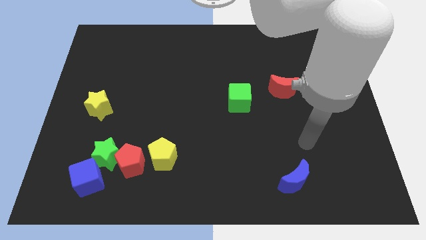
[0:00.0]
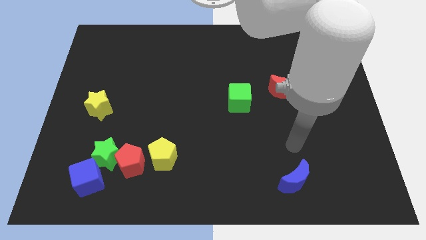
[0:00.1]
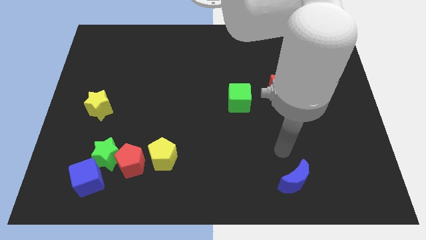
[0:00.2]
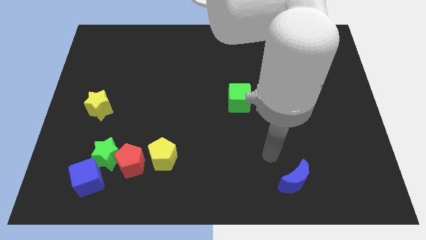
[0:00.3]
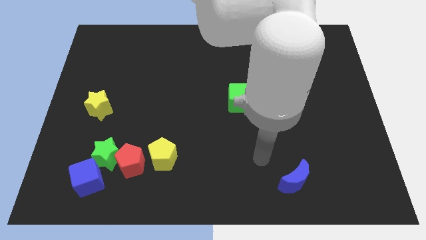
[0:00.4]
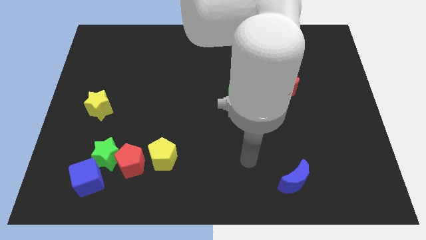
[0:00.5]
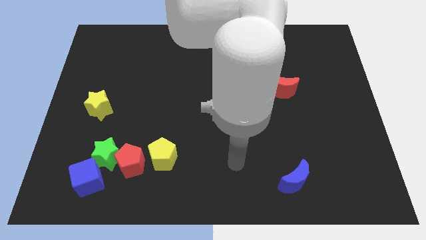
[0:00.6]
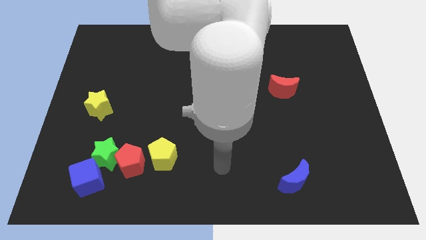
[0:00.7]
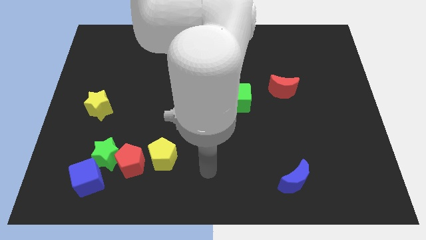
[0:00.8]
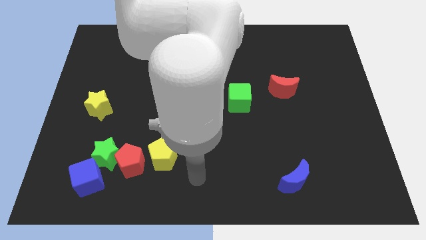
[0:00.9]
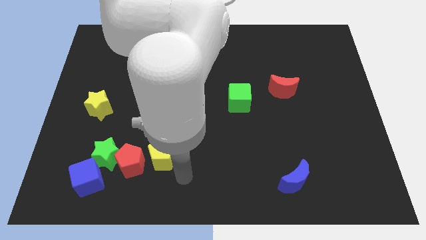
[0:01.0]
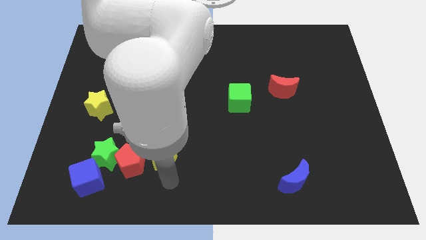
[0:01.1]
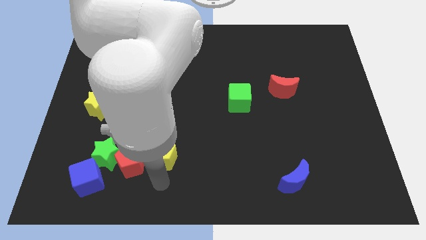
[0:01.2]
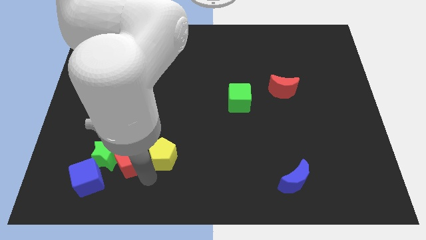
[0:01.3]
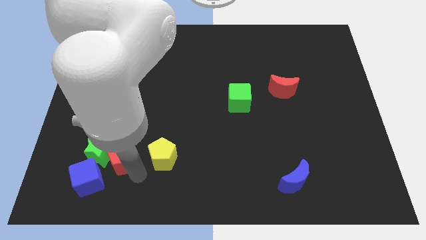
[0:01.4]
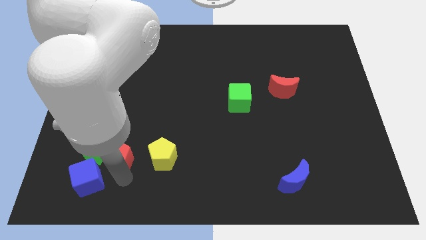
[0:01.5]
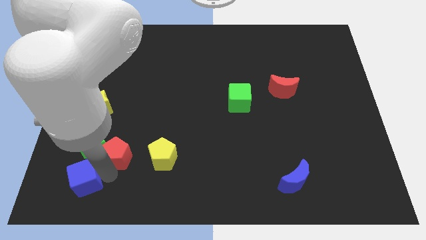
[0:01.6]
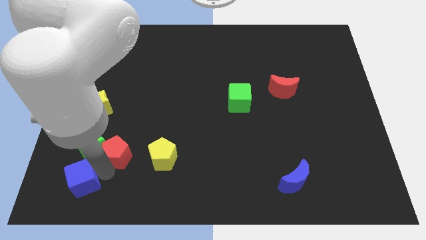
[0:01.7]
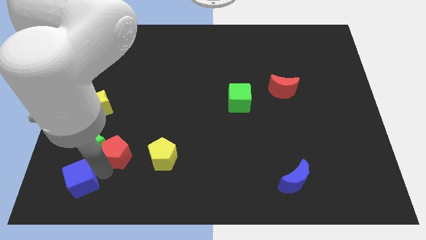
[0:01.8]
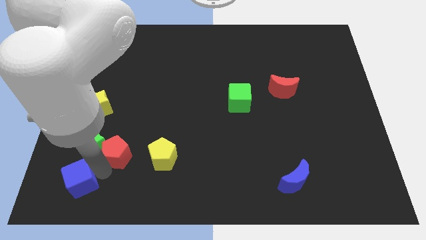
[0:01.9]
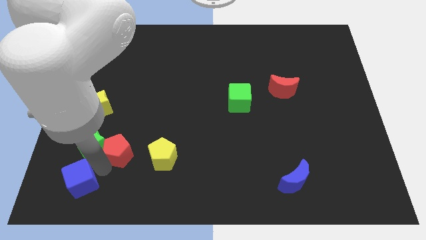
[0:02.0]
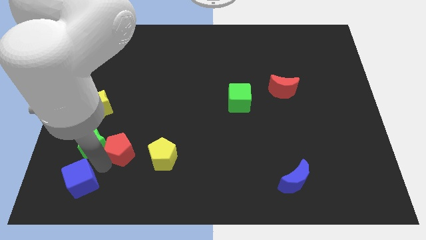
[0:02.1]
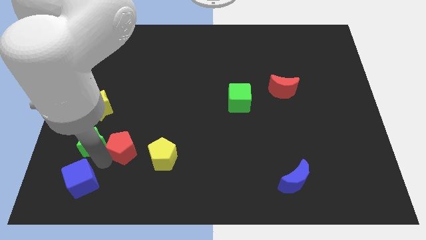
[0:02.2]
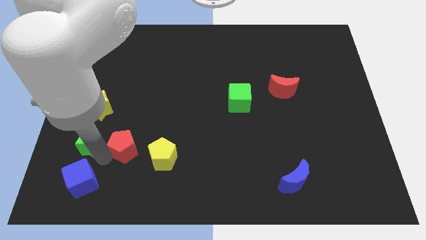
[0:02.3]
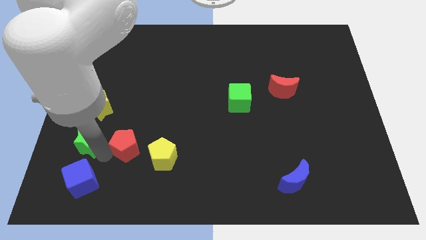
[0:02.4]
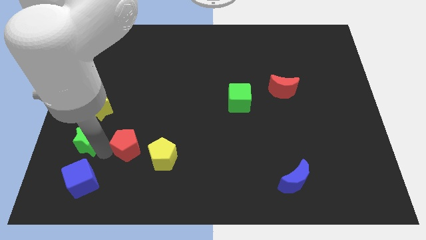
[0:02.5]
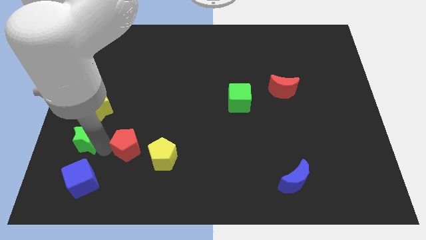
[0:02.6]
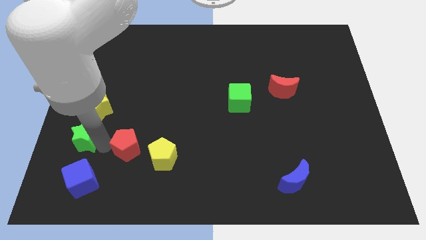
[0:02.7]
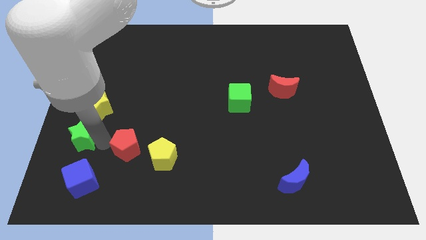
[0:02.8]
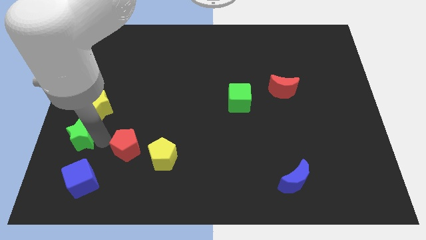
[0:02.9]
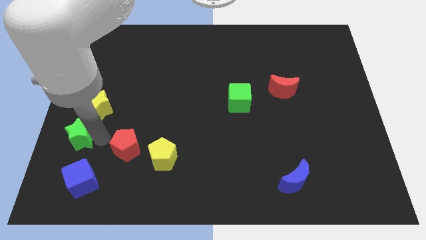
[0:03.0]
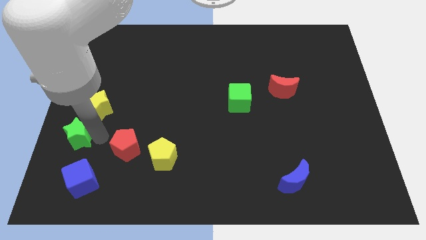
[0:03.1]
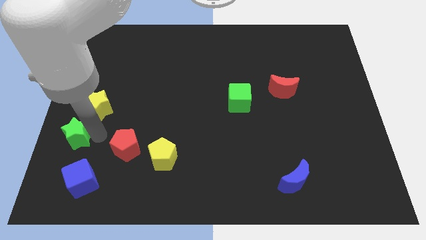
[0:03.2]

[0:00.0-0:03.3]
pull the green star apart from the red pentagon and blue cube

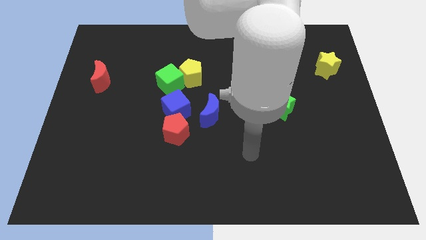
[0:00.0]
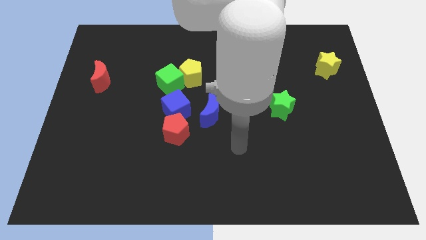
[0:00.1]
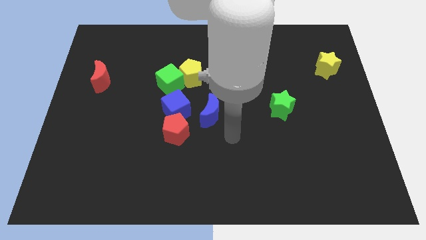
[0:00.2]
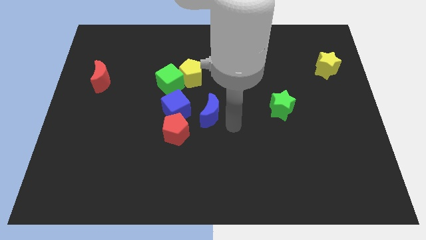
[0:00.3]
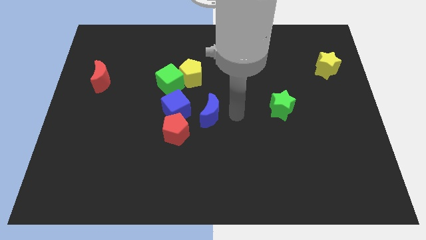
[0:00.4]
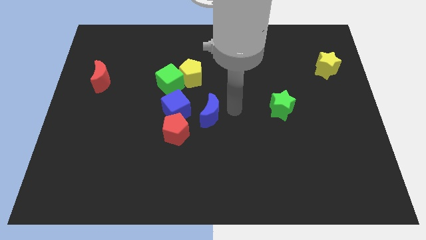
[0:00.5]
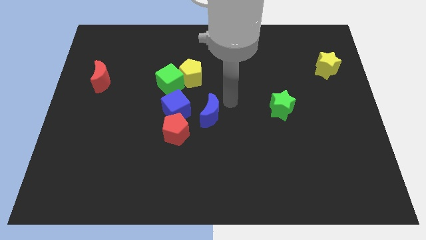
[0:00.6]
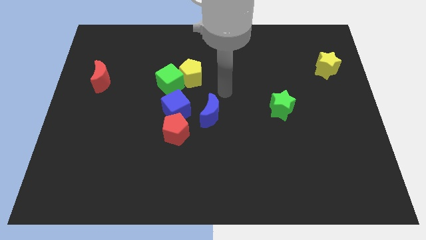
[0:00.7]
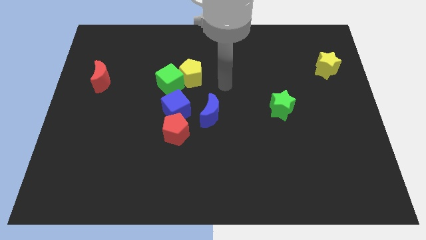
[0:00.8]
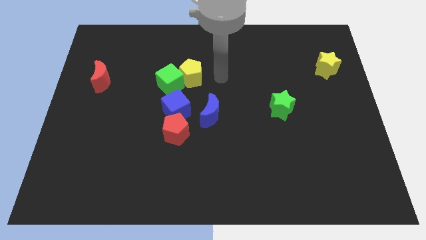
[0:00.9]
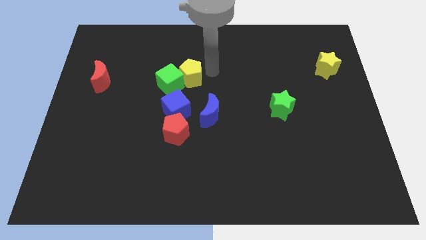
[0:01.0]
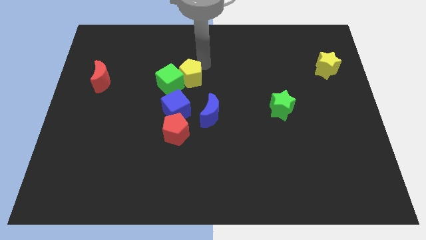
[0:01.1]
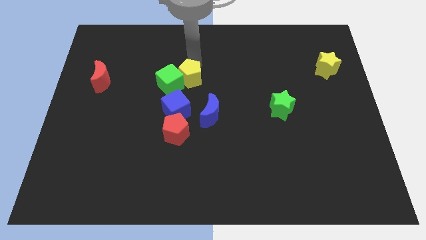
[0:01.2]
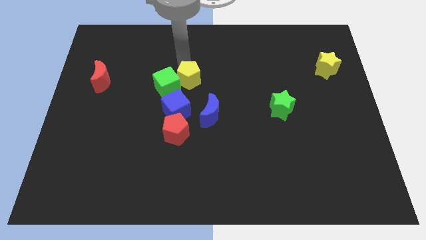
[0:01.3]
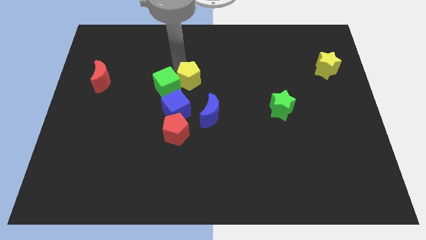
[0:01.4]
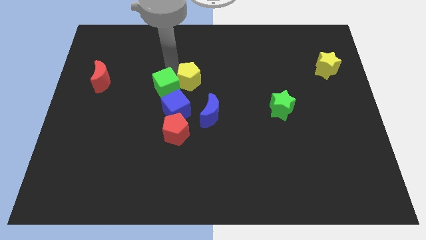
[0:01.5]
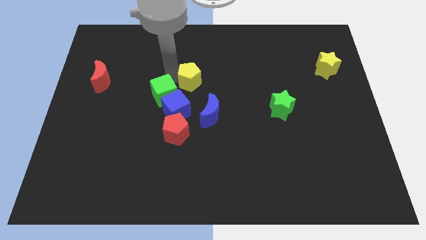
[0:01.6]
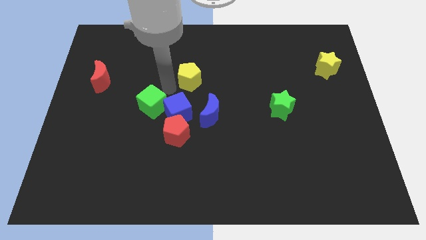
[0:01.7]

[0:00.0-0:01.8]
pull the yellow pentagon apart from the green cube

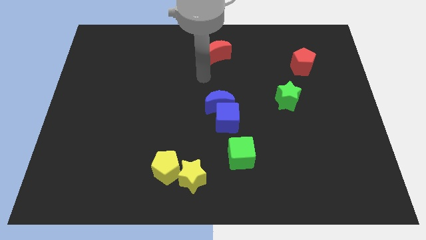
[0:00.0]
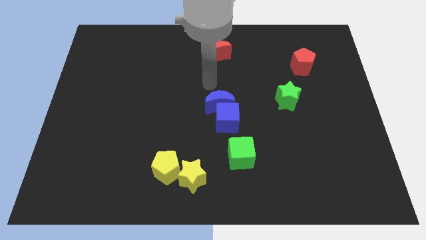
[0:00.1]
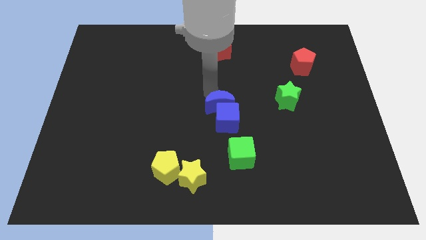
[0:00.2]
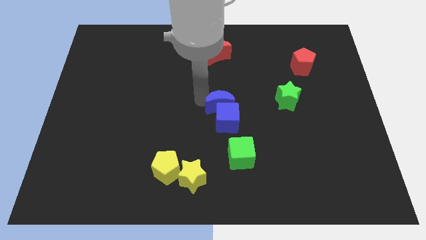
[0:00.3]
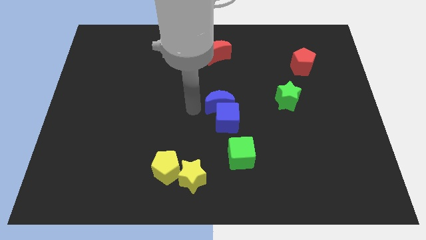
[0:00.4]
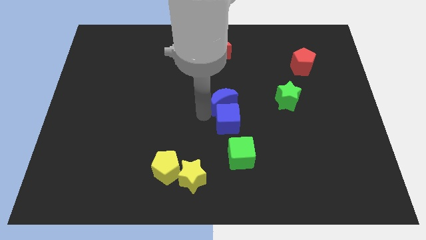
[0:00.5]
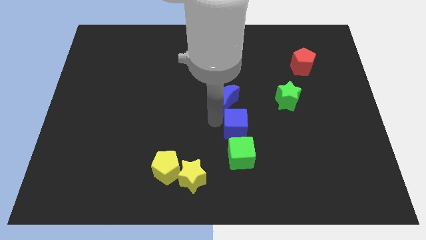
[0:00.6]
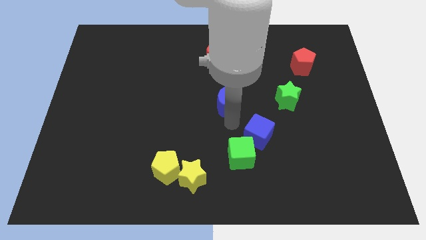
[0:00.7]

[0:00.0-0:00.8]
pull the blue moon apart from the blue cube

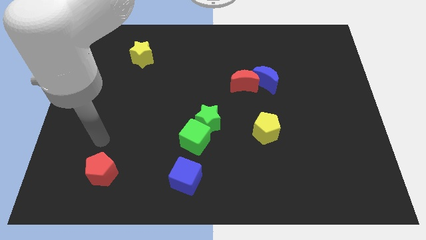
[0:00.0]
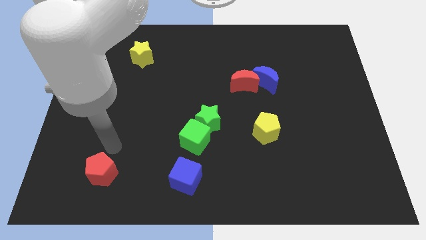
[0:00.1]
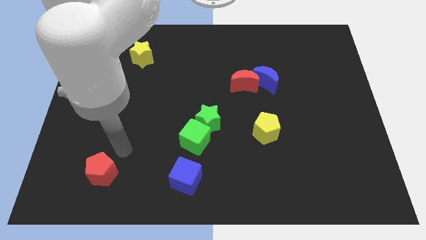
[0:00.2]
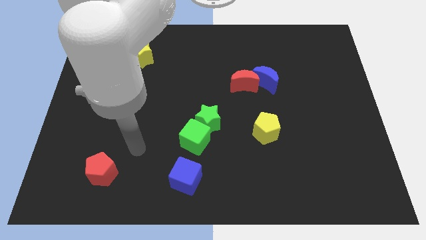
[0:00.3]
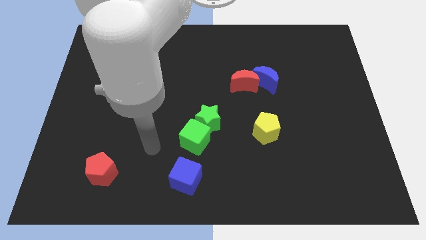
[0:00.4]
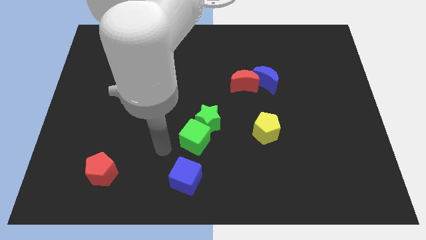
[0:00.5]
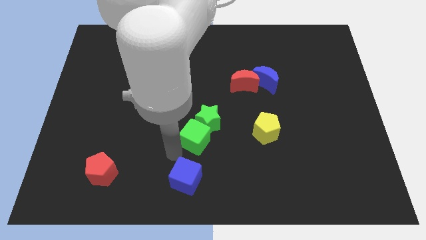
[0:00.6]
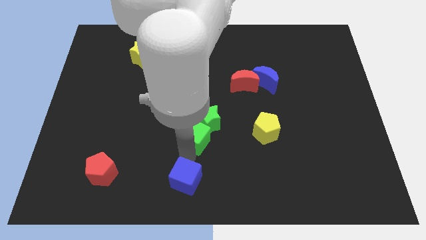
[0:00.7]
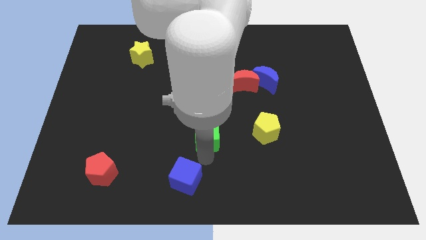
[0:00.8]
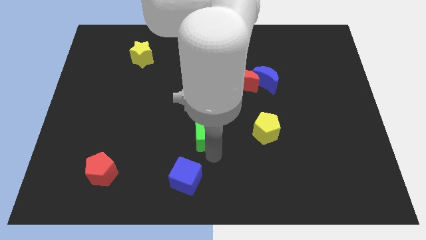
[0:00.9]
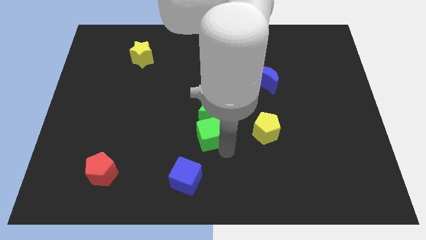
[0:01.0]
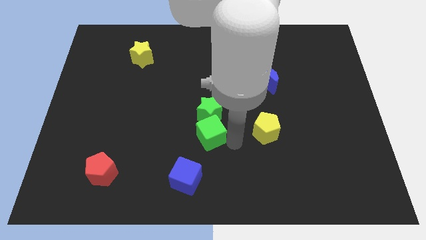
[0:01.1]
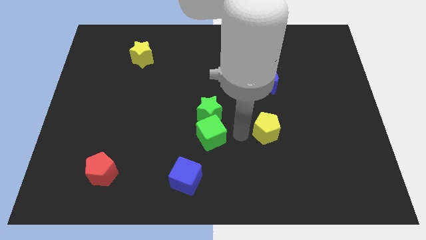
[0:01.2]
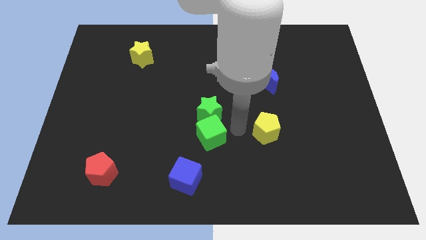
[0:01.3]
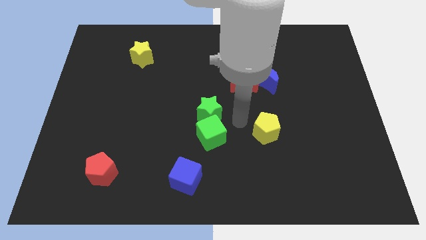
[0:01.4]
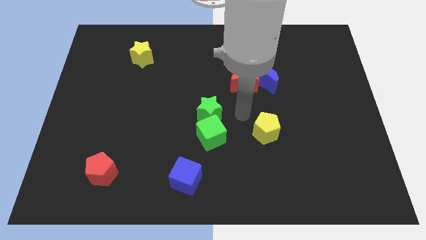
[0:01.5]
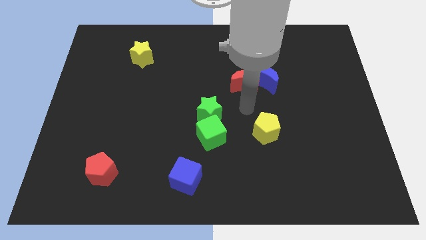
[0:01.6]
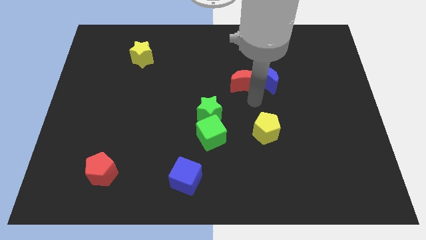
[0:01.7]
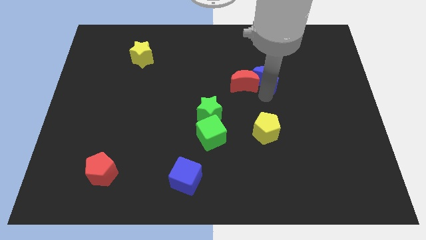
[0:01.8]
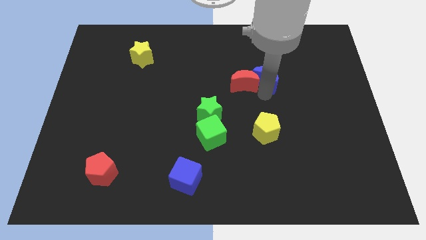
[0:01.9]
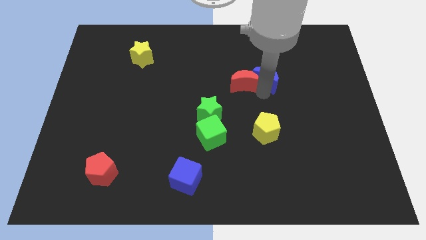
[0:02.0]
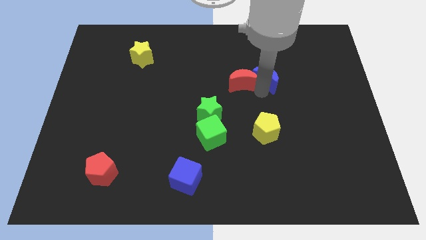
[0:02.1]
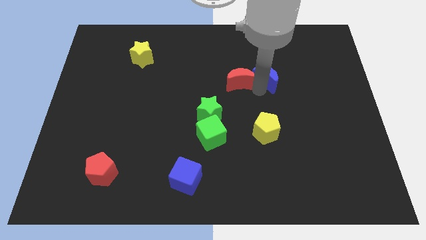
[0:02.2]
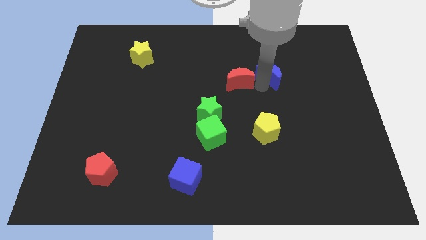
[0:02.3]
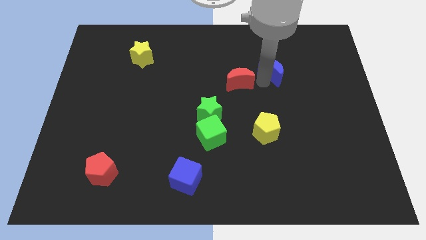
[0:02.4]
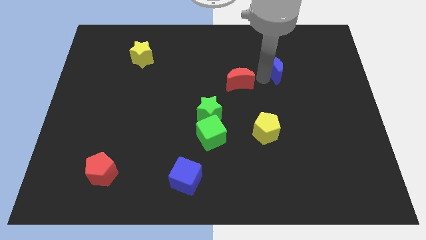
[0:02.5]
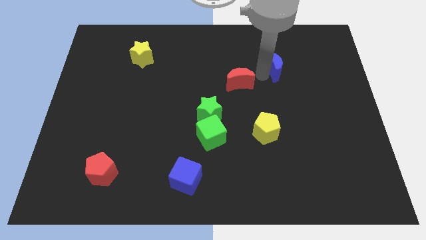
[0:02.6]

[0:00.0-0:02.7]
pull the red moon apart from the blue moon

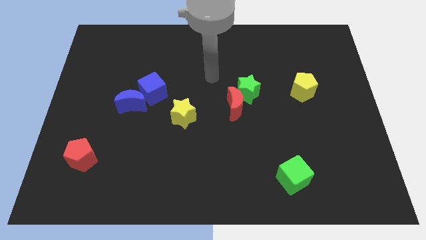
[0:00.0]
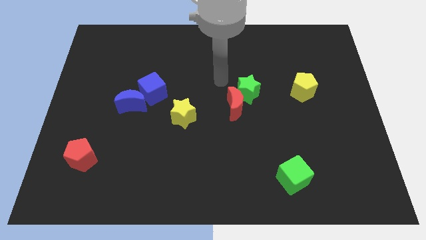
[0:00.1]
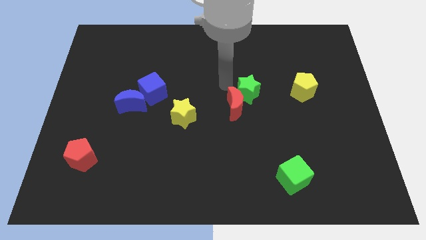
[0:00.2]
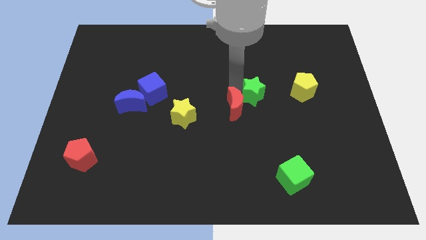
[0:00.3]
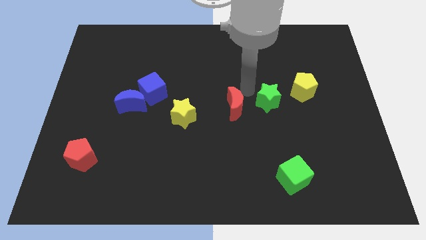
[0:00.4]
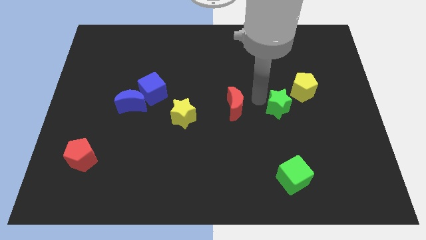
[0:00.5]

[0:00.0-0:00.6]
move the red moon away from the green star

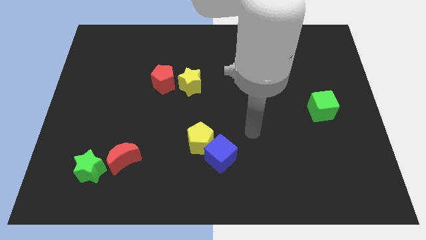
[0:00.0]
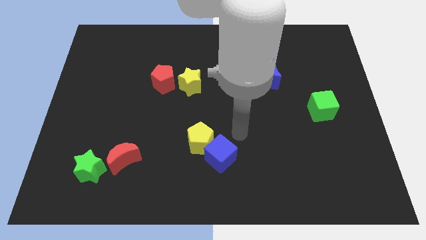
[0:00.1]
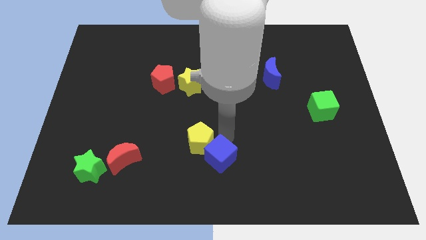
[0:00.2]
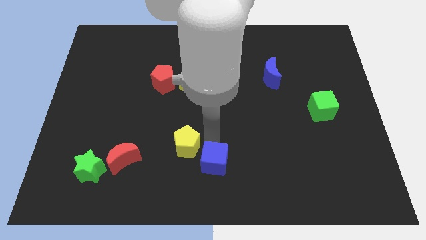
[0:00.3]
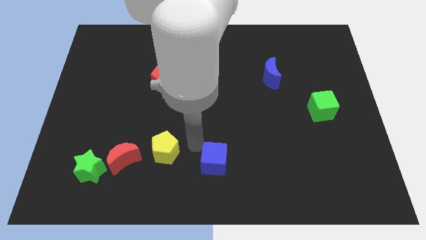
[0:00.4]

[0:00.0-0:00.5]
separate the blue cube from the yellow pentagon
